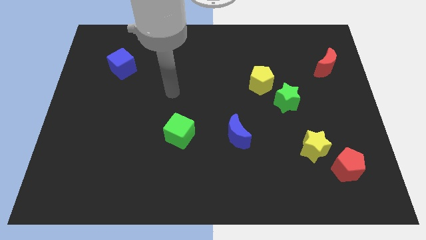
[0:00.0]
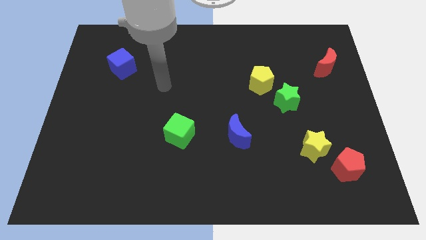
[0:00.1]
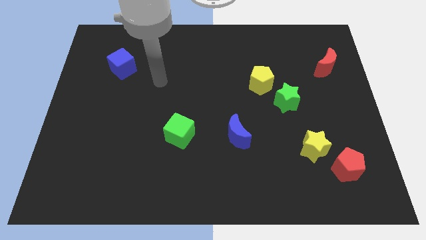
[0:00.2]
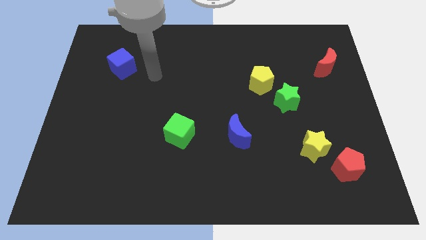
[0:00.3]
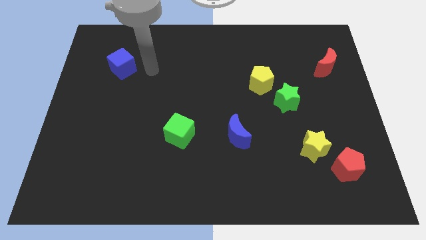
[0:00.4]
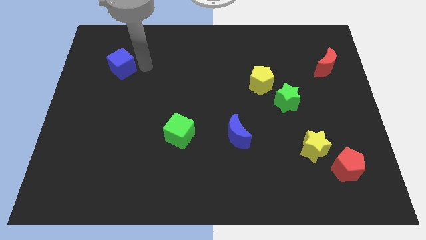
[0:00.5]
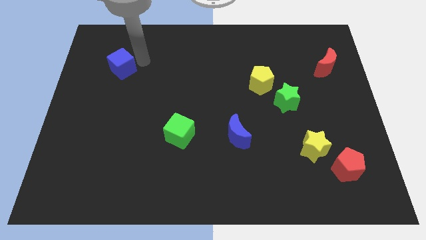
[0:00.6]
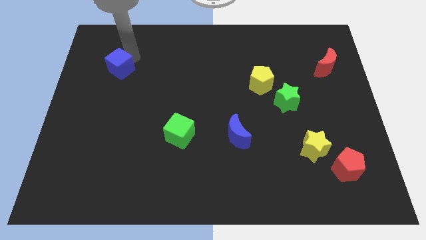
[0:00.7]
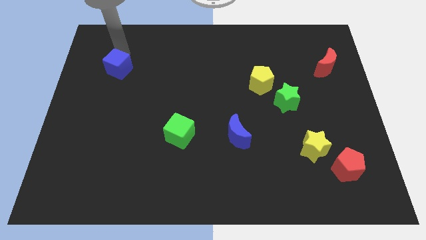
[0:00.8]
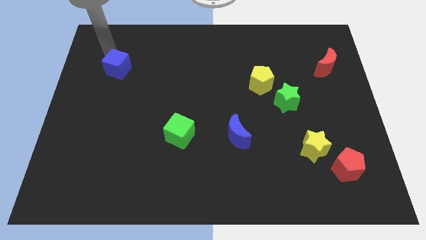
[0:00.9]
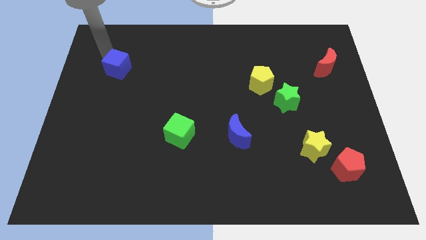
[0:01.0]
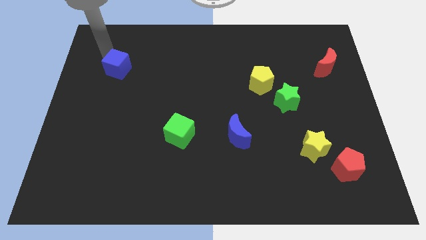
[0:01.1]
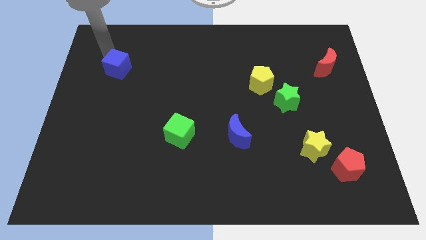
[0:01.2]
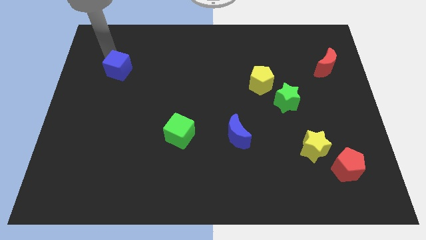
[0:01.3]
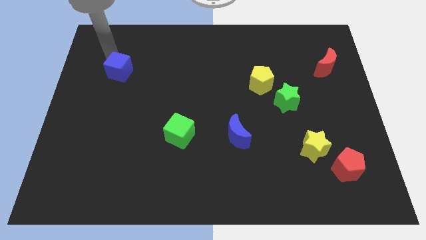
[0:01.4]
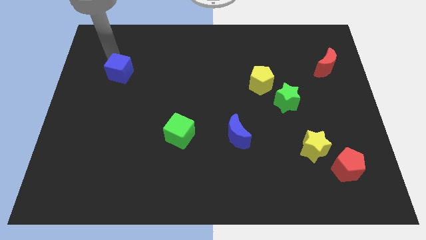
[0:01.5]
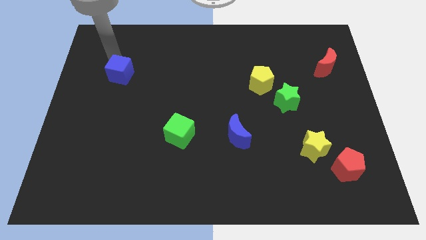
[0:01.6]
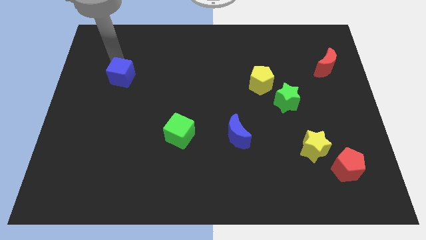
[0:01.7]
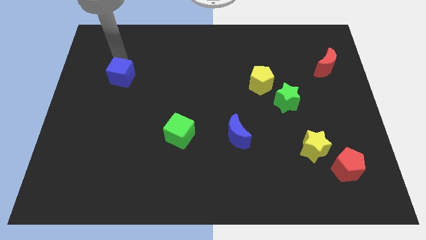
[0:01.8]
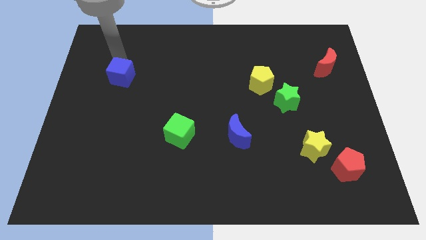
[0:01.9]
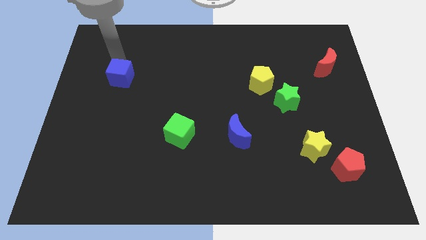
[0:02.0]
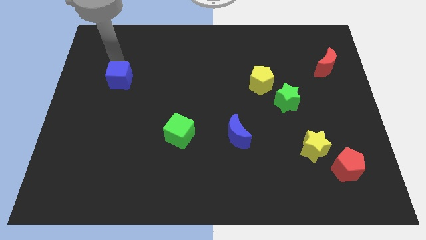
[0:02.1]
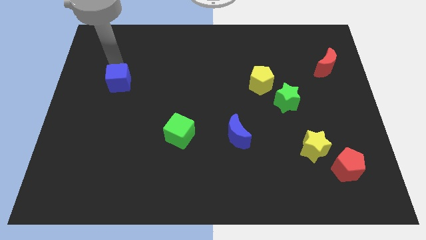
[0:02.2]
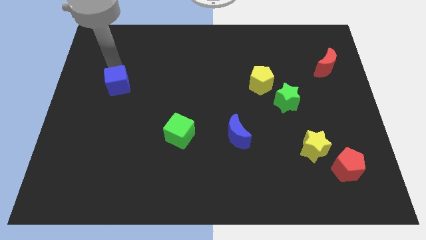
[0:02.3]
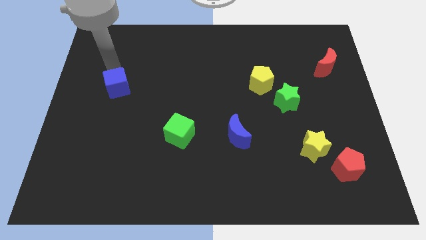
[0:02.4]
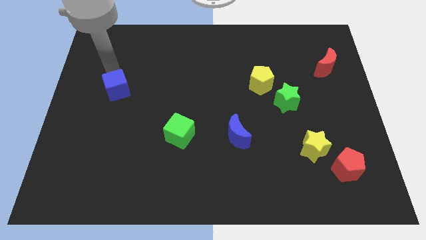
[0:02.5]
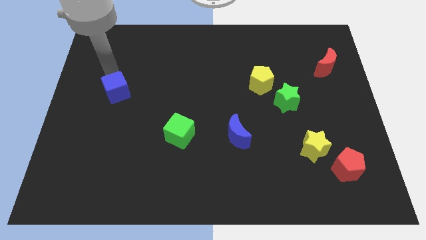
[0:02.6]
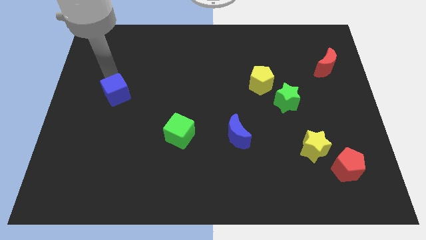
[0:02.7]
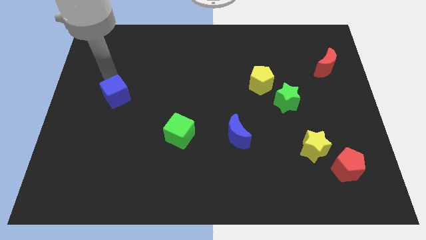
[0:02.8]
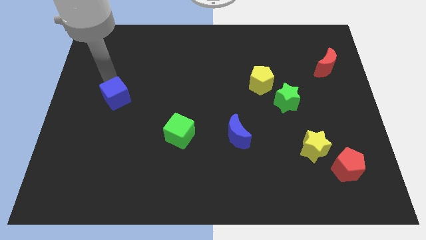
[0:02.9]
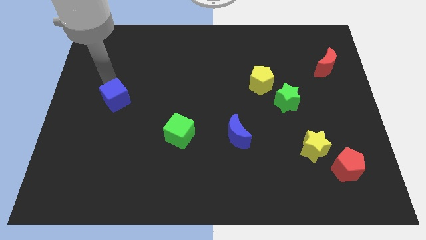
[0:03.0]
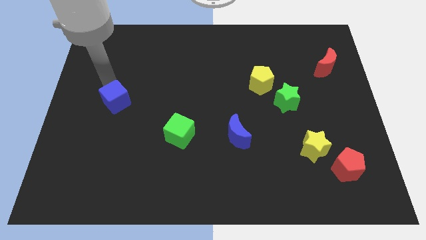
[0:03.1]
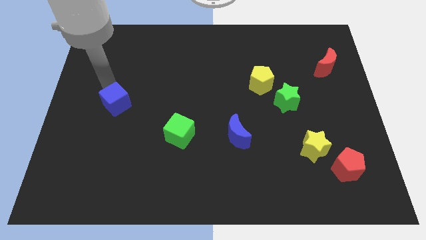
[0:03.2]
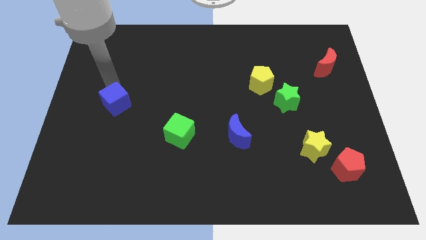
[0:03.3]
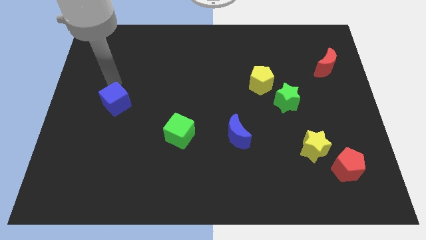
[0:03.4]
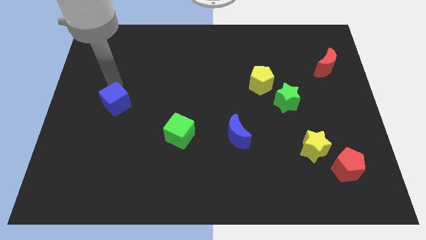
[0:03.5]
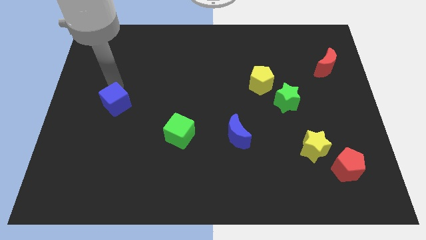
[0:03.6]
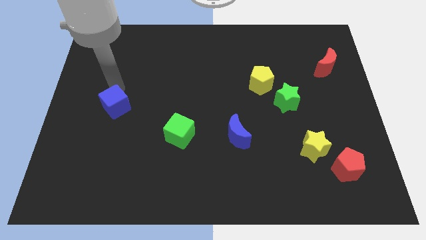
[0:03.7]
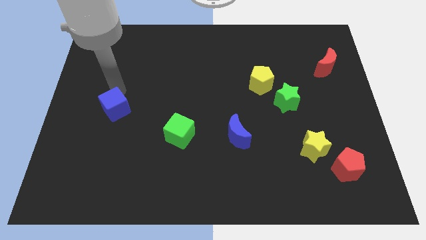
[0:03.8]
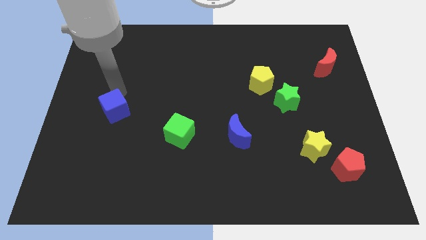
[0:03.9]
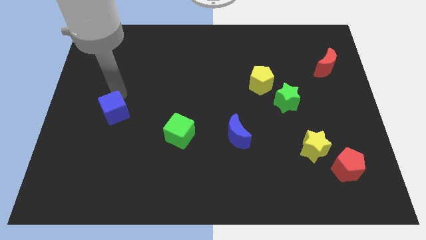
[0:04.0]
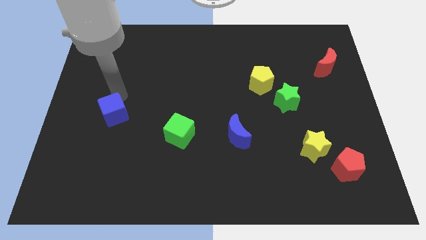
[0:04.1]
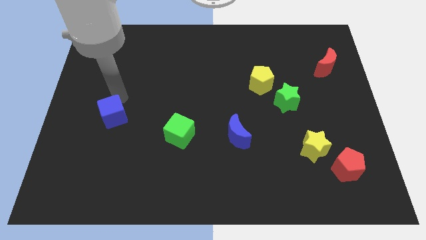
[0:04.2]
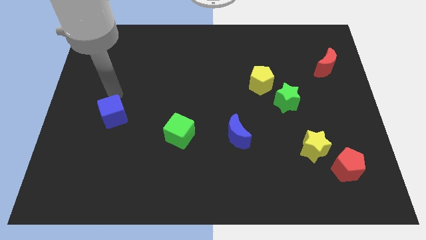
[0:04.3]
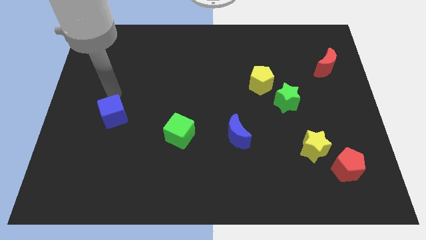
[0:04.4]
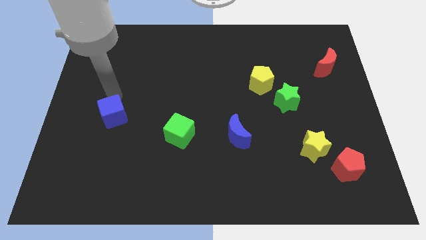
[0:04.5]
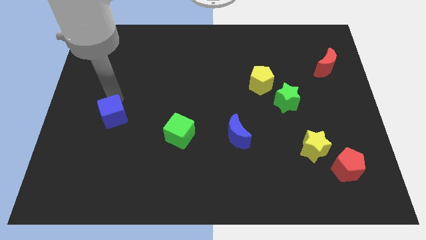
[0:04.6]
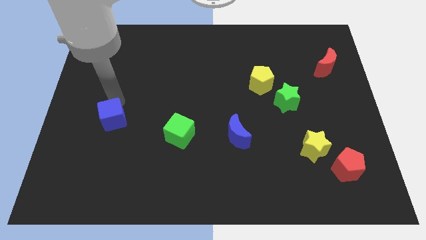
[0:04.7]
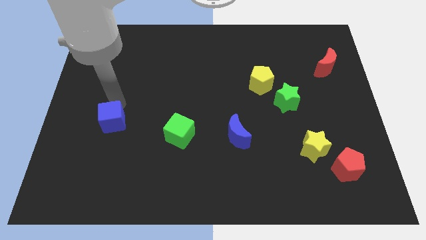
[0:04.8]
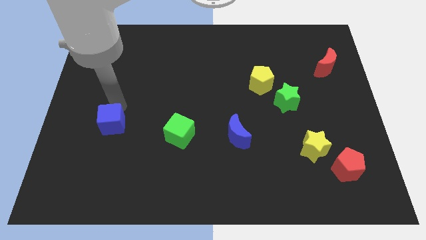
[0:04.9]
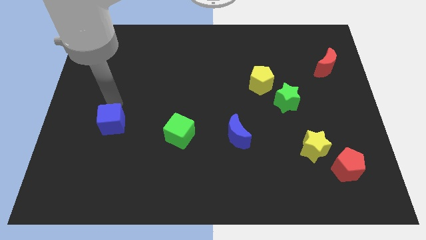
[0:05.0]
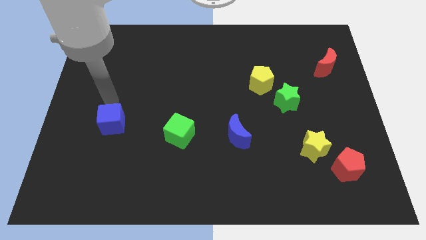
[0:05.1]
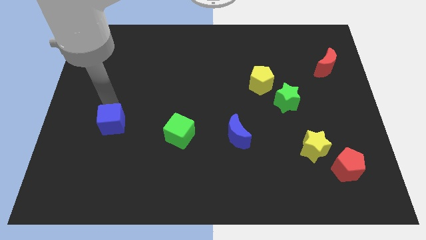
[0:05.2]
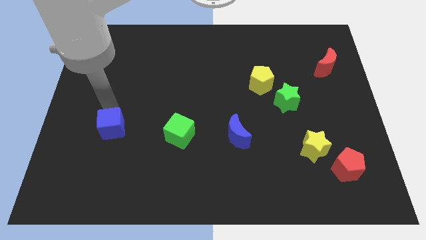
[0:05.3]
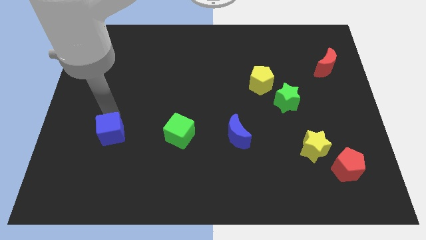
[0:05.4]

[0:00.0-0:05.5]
slide the blue cube downwards

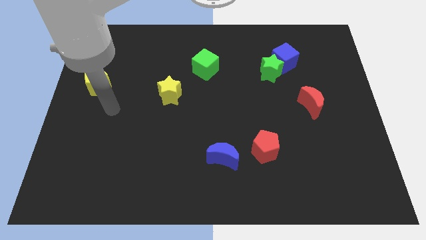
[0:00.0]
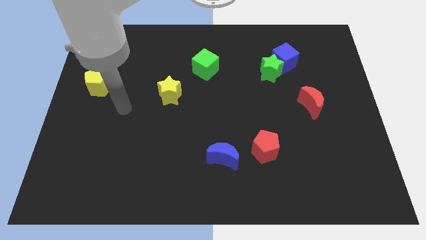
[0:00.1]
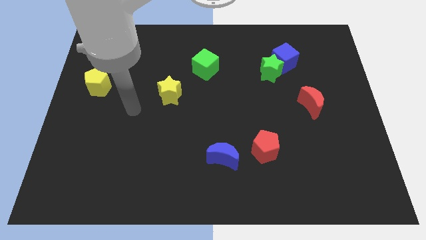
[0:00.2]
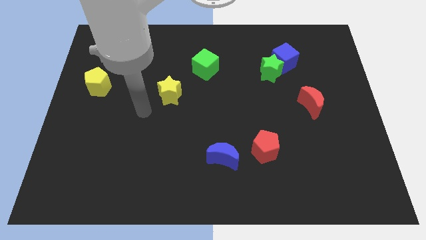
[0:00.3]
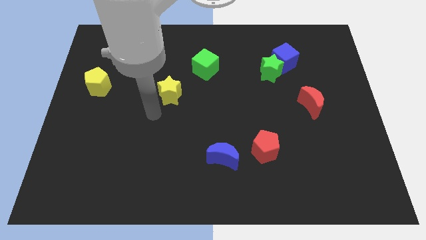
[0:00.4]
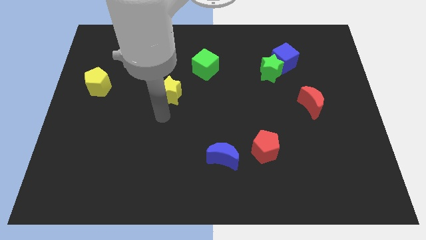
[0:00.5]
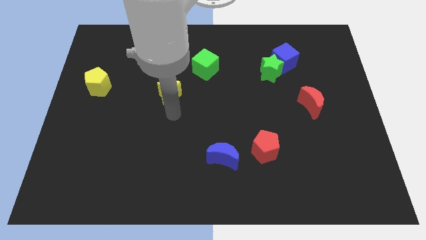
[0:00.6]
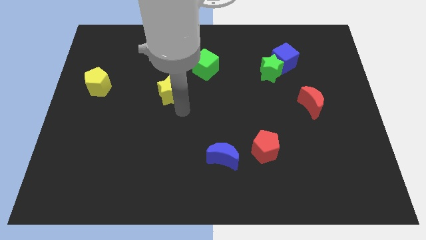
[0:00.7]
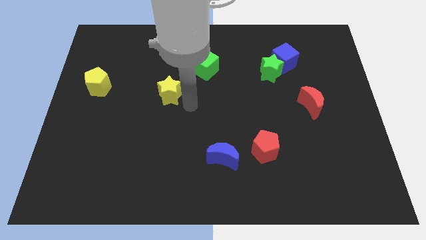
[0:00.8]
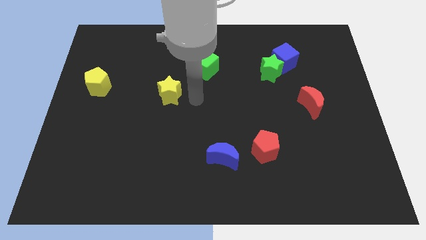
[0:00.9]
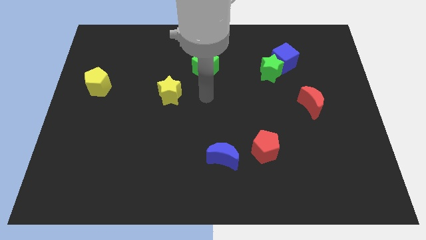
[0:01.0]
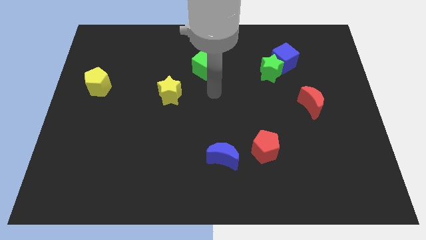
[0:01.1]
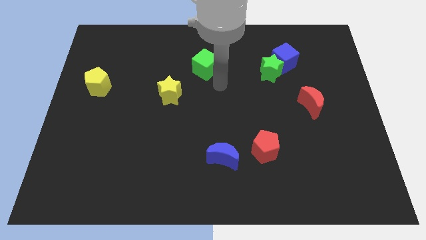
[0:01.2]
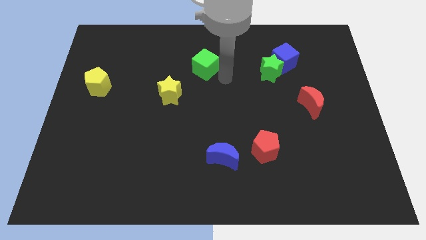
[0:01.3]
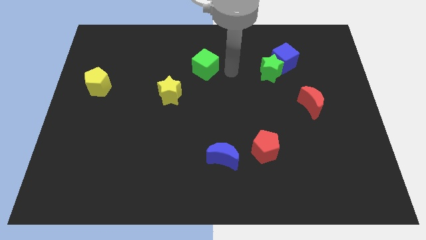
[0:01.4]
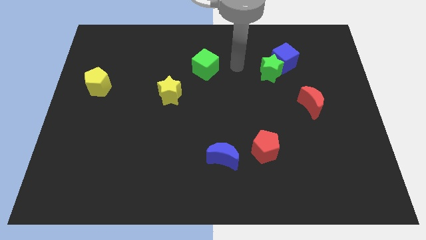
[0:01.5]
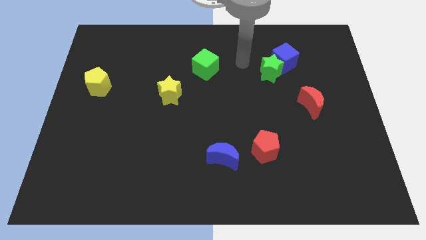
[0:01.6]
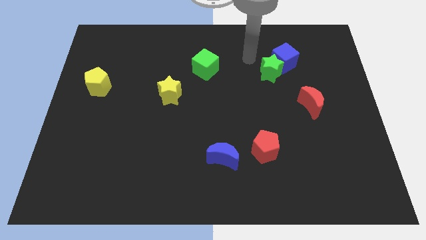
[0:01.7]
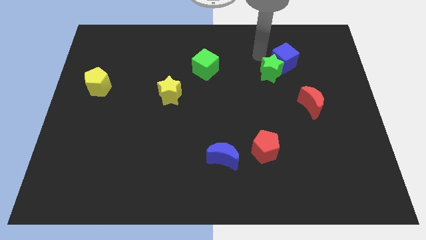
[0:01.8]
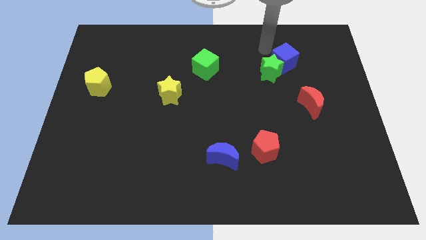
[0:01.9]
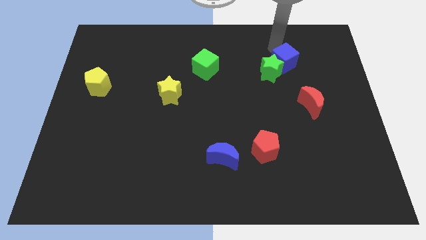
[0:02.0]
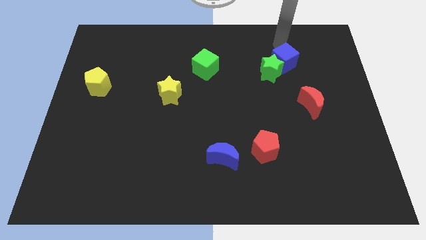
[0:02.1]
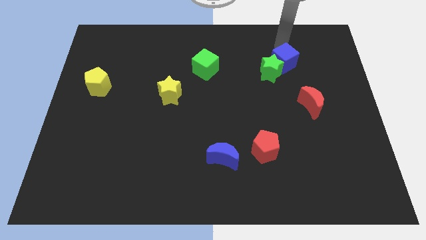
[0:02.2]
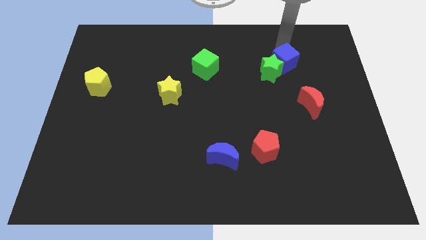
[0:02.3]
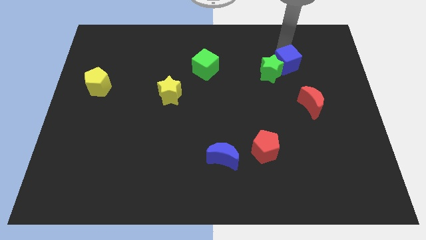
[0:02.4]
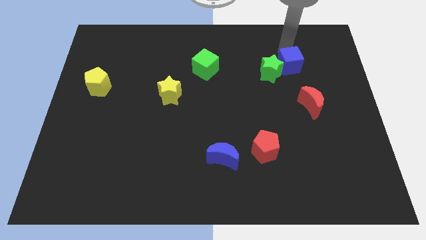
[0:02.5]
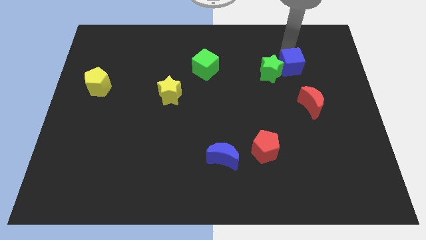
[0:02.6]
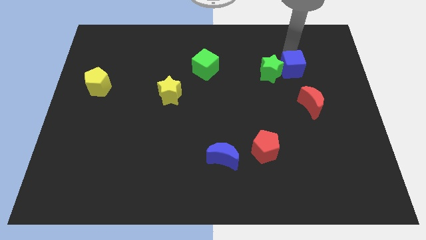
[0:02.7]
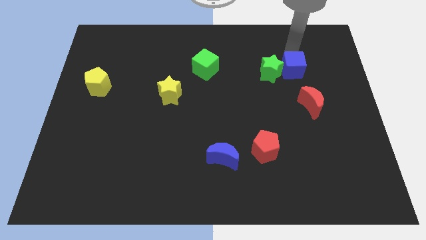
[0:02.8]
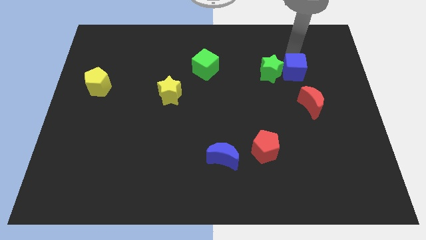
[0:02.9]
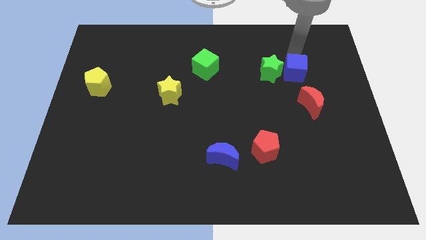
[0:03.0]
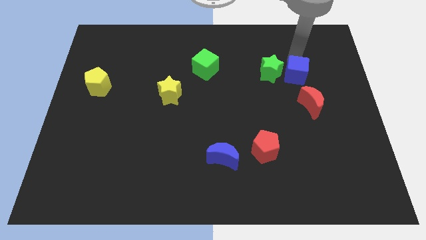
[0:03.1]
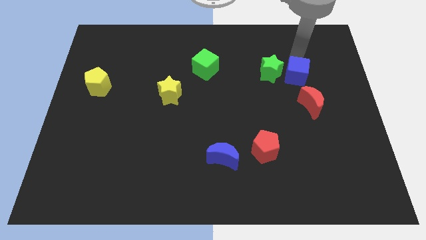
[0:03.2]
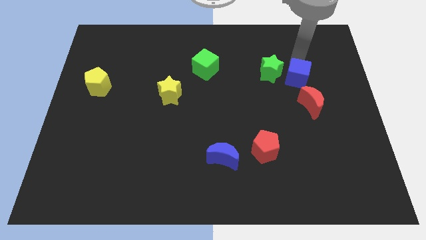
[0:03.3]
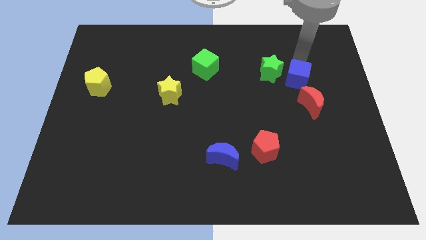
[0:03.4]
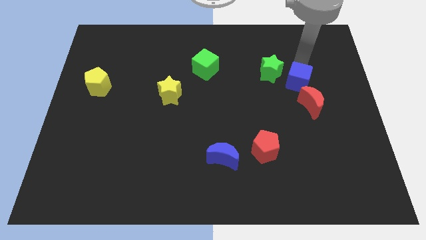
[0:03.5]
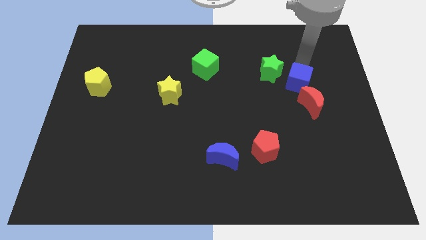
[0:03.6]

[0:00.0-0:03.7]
move the blue cube a little down
